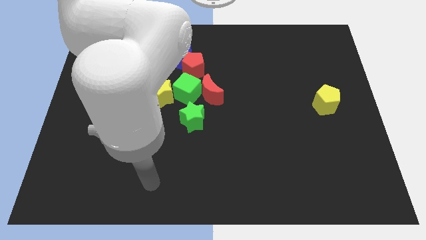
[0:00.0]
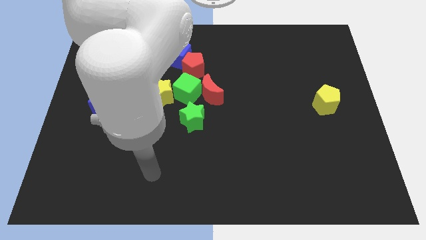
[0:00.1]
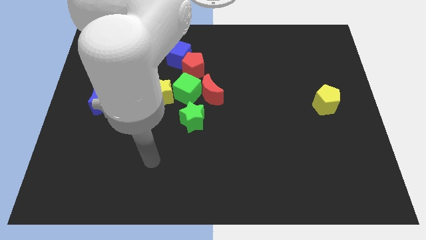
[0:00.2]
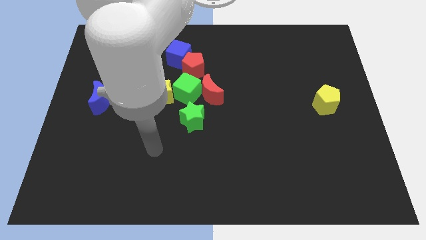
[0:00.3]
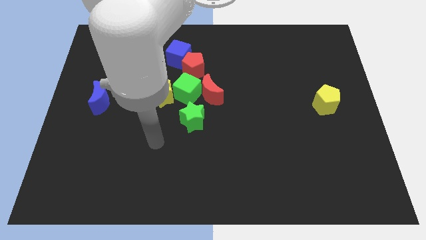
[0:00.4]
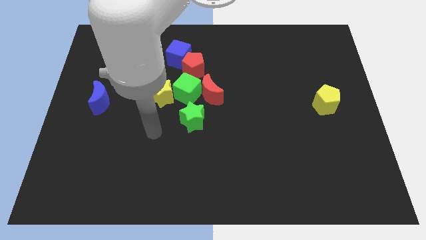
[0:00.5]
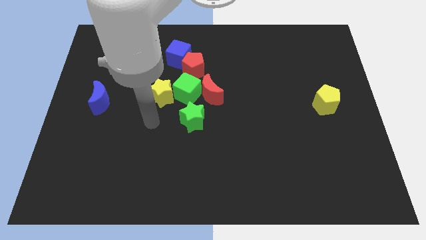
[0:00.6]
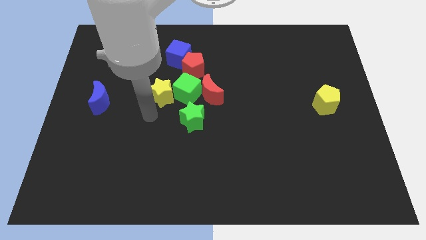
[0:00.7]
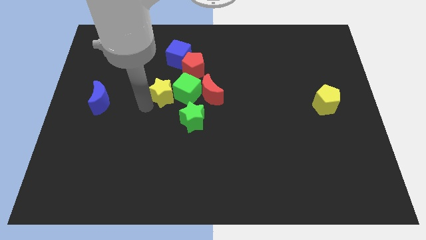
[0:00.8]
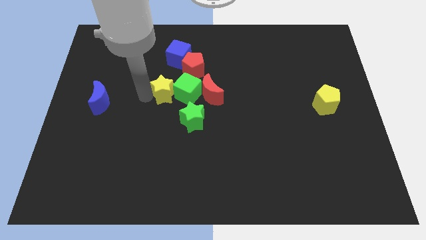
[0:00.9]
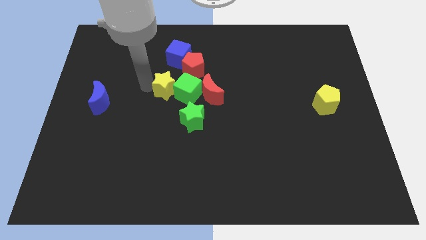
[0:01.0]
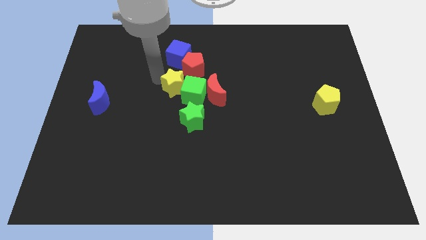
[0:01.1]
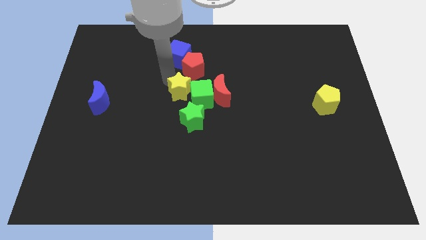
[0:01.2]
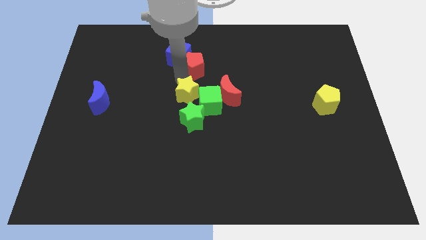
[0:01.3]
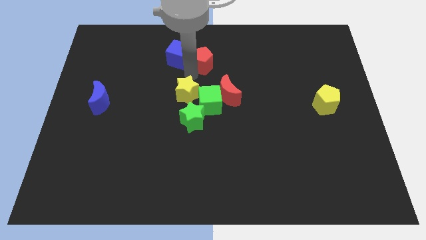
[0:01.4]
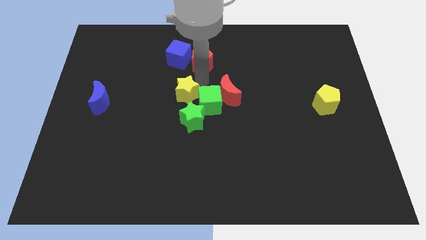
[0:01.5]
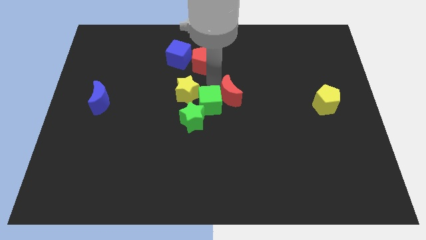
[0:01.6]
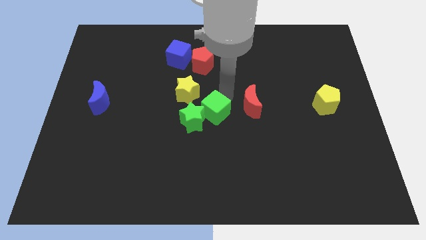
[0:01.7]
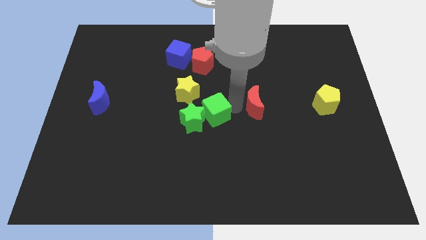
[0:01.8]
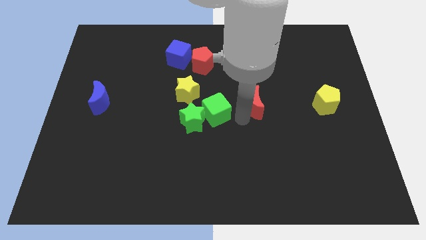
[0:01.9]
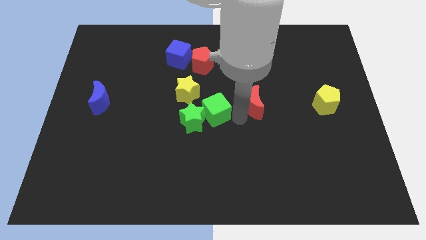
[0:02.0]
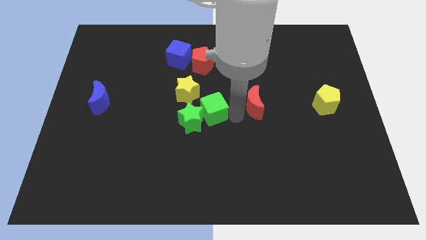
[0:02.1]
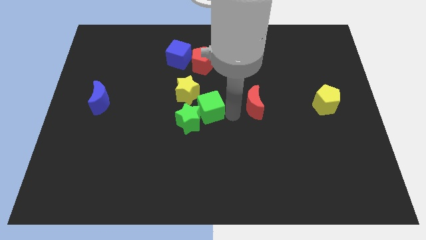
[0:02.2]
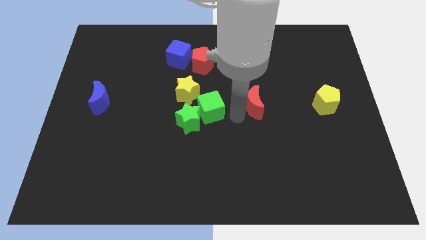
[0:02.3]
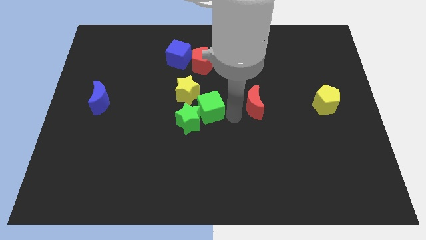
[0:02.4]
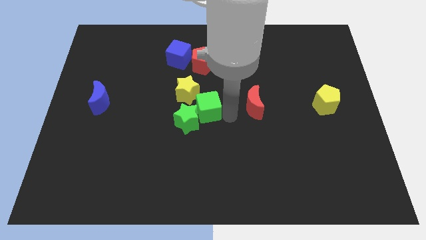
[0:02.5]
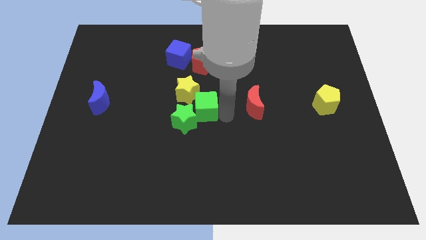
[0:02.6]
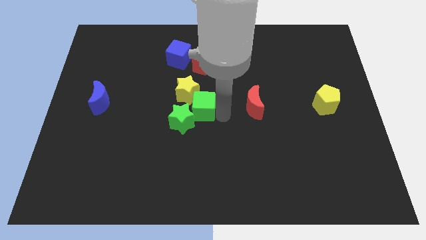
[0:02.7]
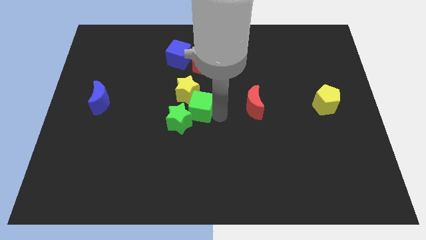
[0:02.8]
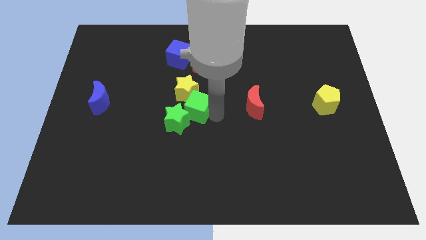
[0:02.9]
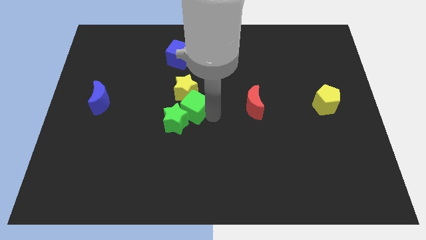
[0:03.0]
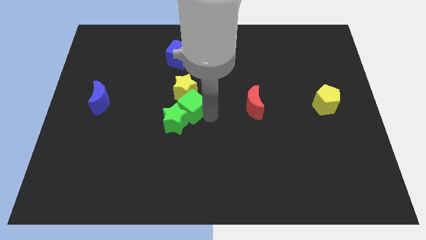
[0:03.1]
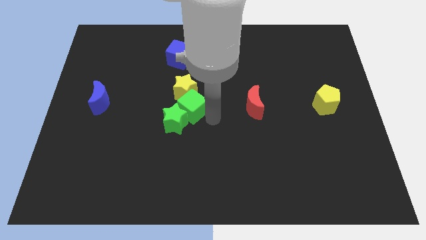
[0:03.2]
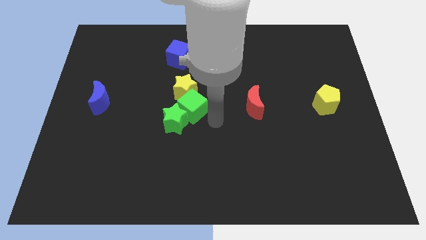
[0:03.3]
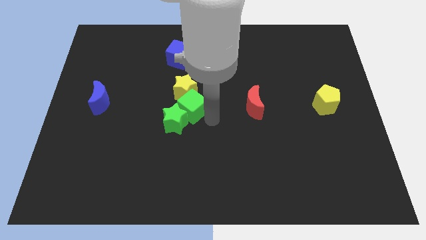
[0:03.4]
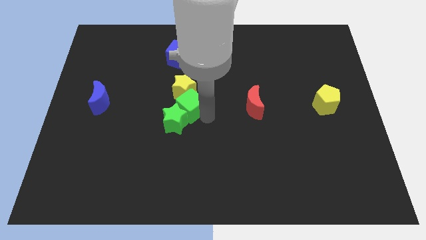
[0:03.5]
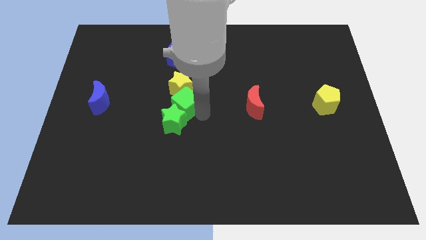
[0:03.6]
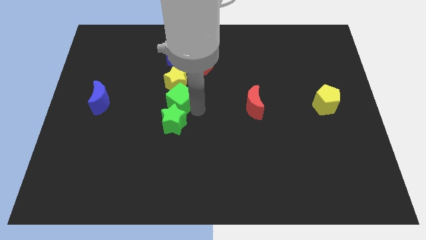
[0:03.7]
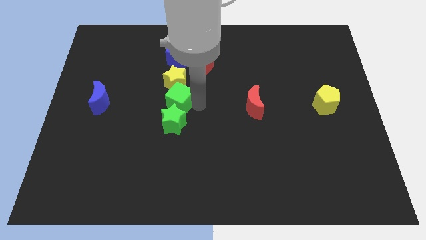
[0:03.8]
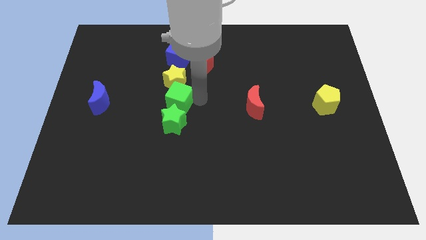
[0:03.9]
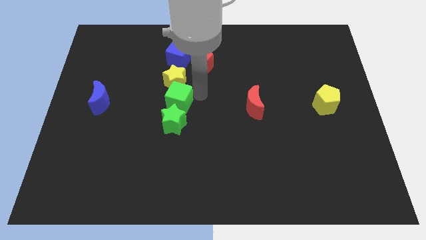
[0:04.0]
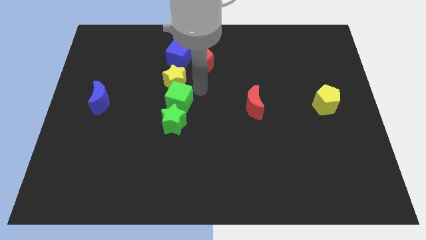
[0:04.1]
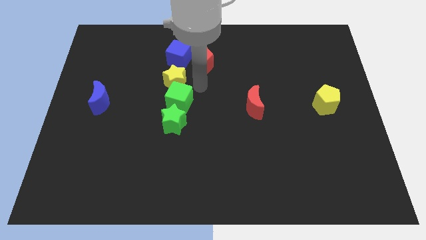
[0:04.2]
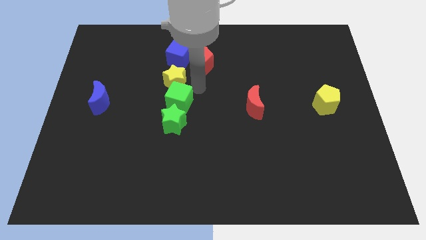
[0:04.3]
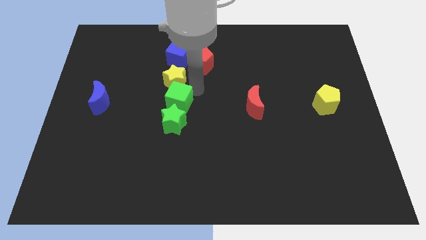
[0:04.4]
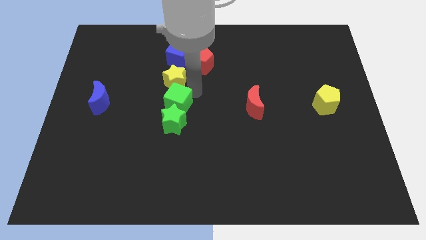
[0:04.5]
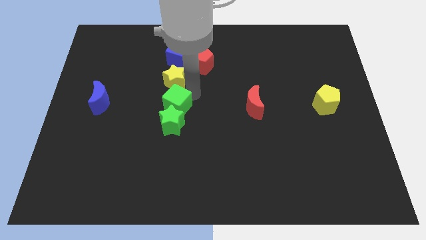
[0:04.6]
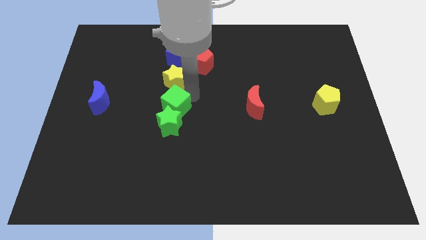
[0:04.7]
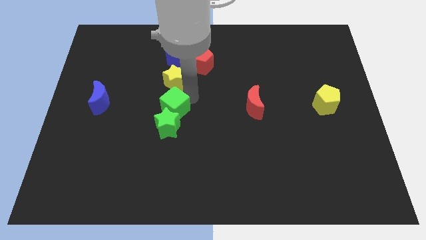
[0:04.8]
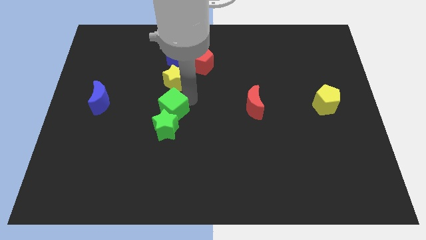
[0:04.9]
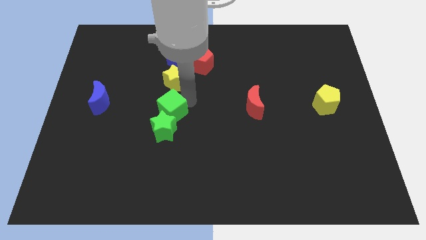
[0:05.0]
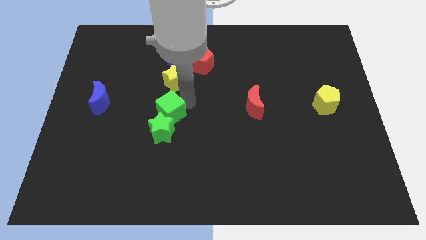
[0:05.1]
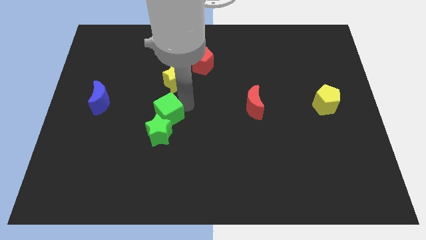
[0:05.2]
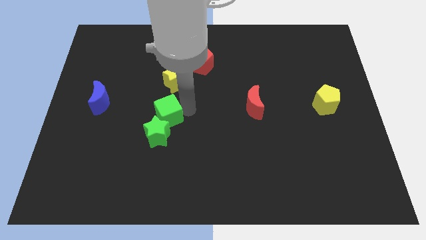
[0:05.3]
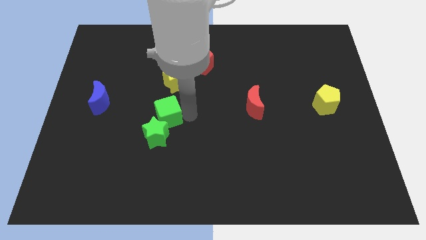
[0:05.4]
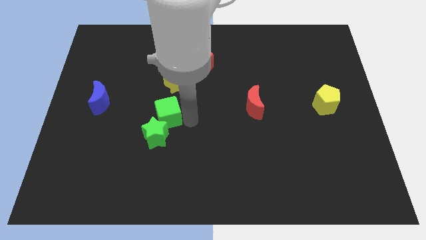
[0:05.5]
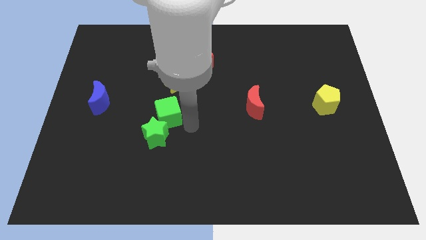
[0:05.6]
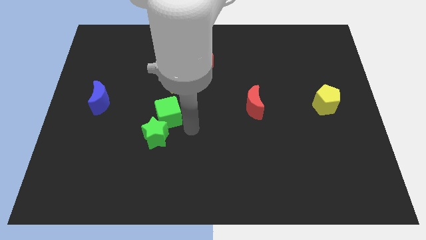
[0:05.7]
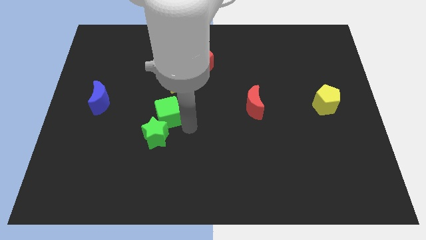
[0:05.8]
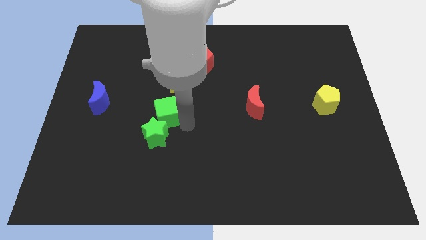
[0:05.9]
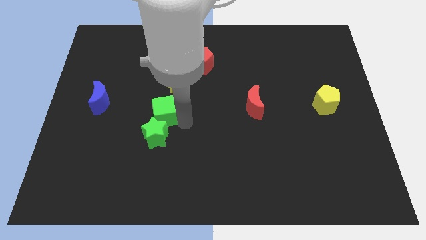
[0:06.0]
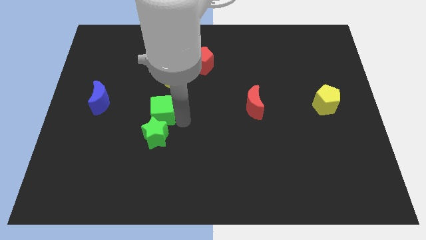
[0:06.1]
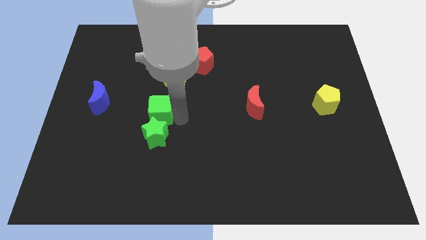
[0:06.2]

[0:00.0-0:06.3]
move the green cube just right of the blue moon
